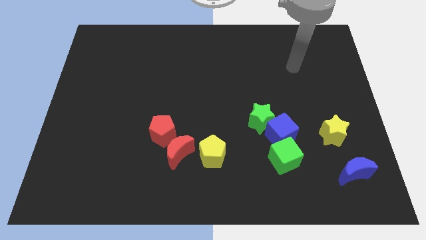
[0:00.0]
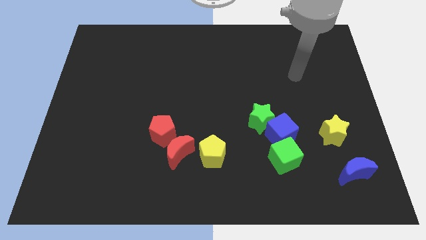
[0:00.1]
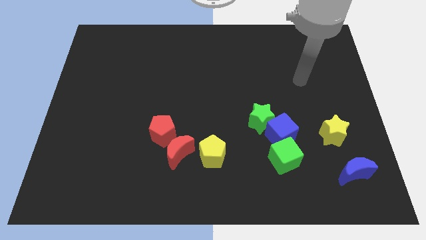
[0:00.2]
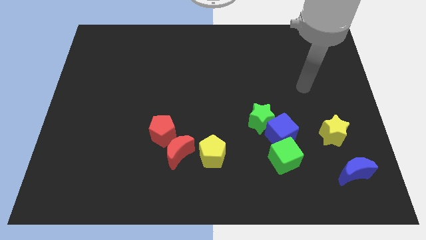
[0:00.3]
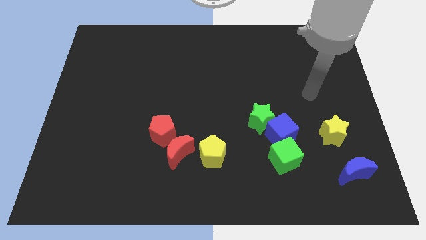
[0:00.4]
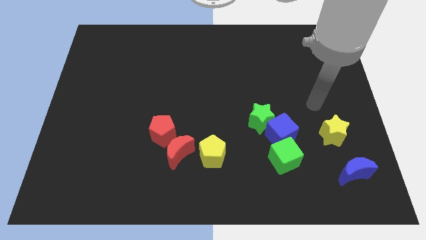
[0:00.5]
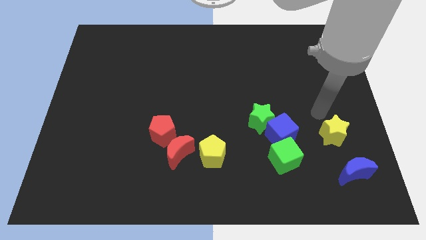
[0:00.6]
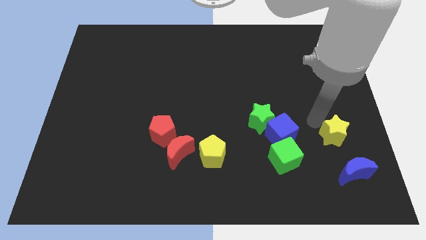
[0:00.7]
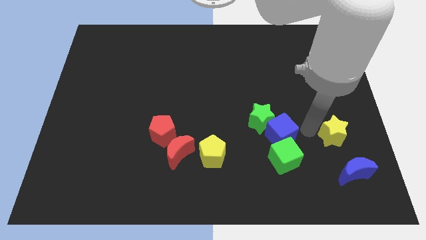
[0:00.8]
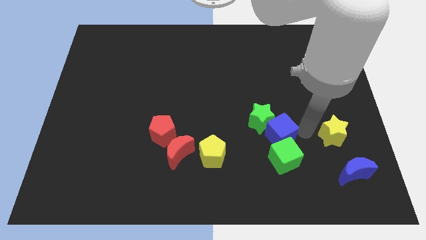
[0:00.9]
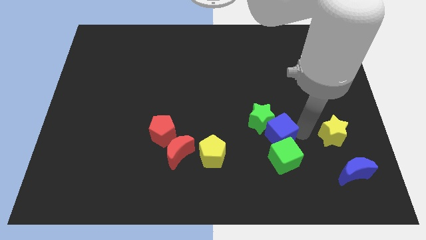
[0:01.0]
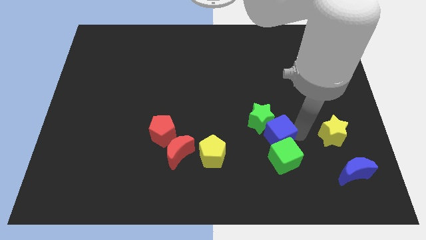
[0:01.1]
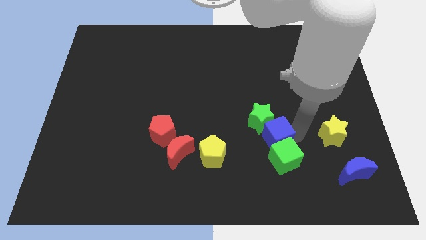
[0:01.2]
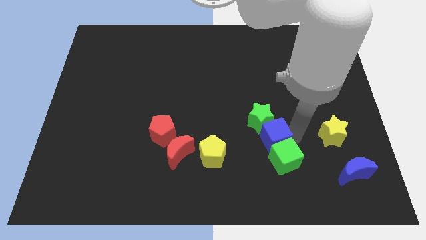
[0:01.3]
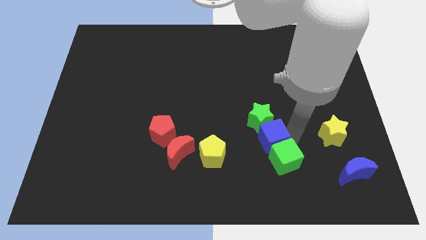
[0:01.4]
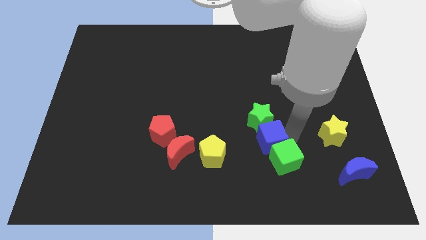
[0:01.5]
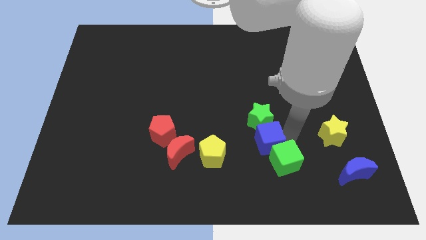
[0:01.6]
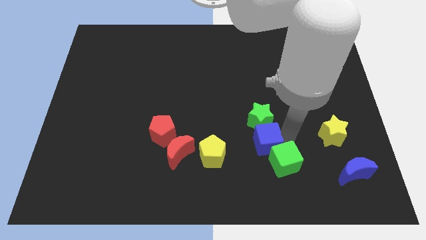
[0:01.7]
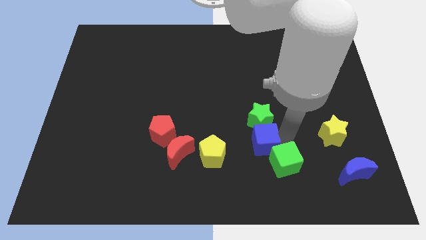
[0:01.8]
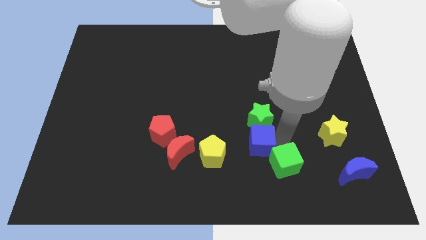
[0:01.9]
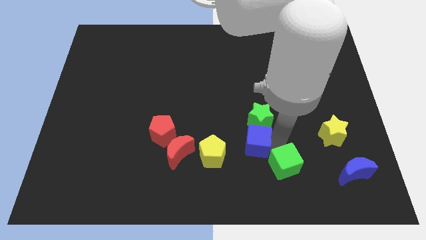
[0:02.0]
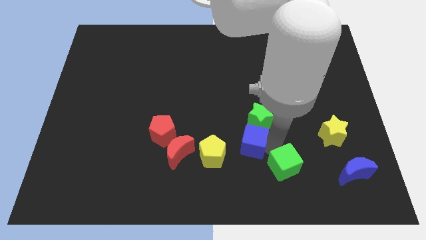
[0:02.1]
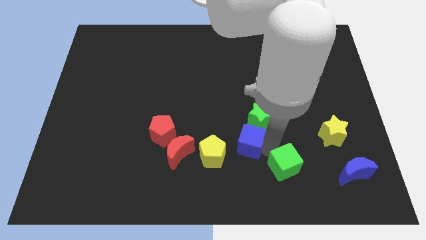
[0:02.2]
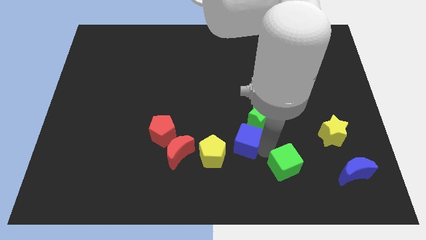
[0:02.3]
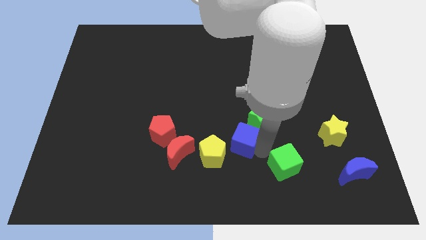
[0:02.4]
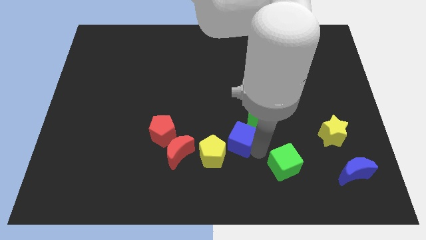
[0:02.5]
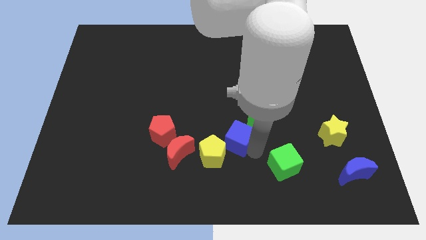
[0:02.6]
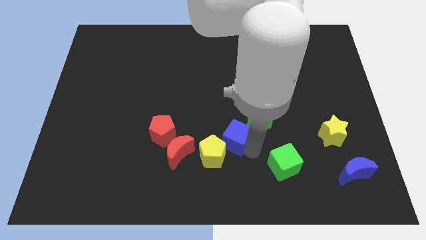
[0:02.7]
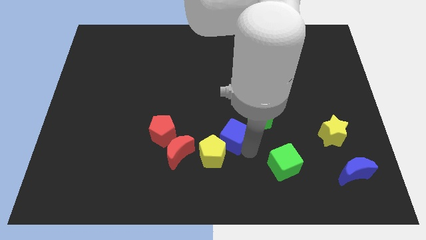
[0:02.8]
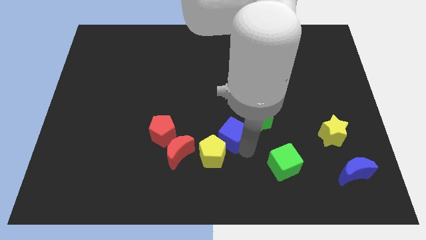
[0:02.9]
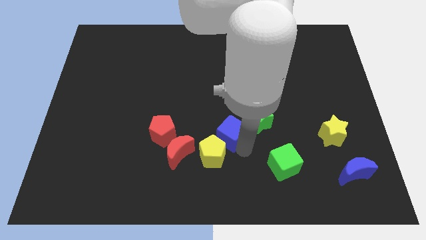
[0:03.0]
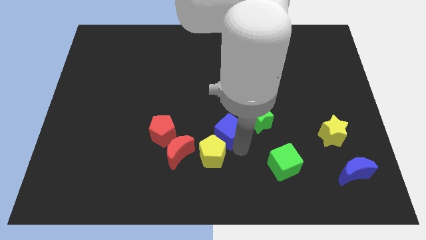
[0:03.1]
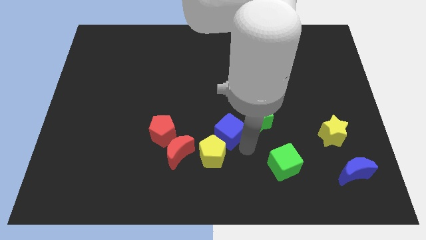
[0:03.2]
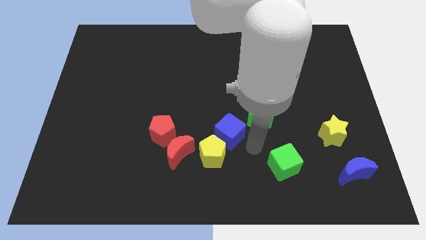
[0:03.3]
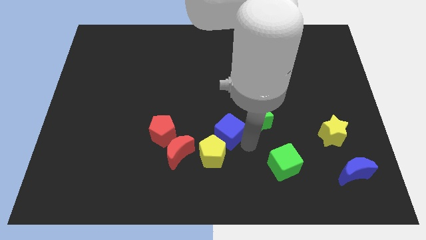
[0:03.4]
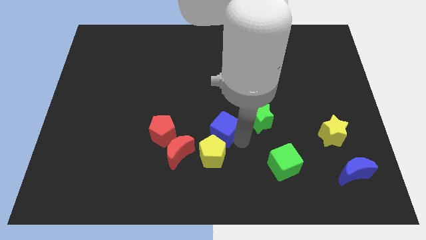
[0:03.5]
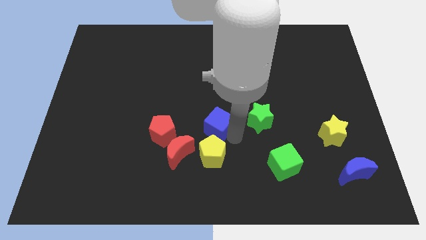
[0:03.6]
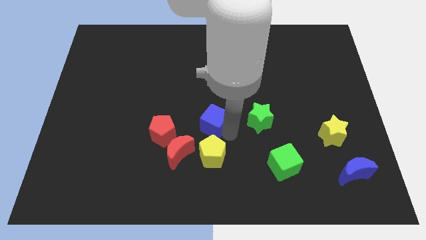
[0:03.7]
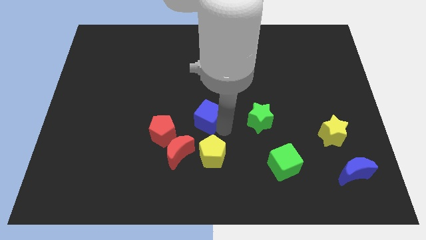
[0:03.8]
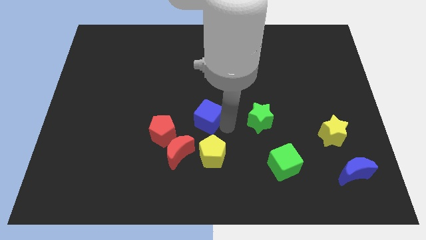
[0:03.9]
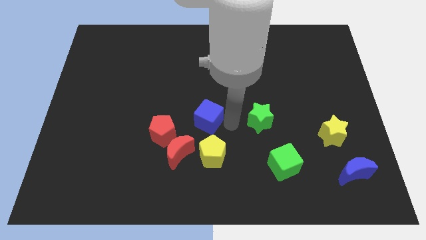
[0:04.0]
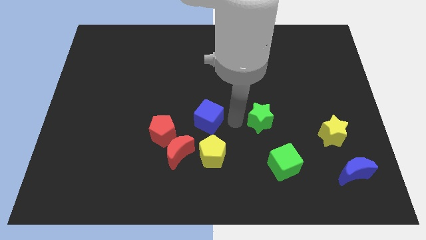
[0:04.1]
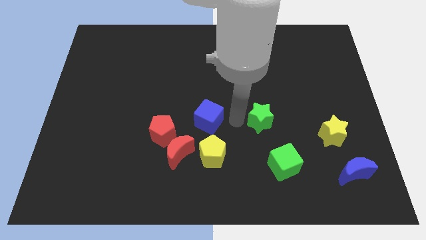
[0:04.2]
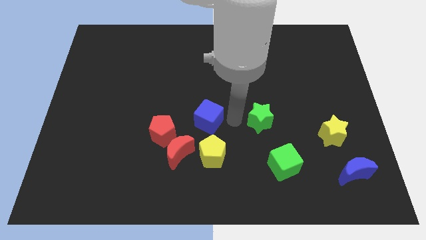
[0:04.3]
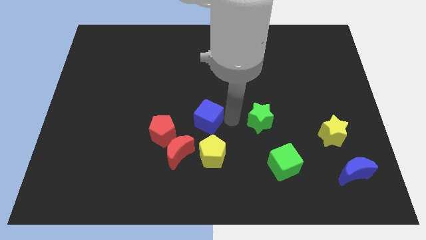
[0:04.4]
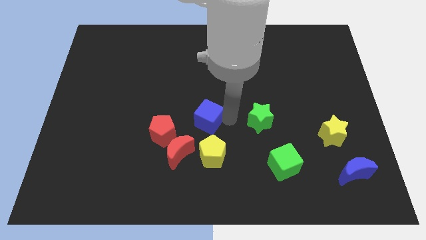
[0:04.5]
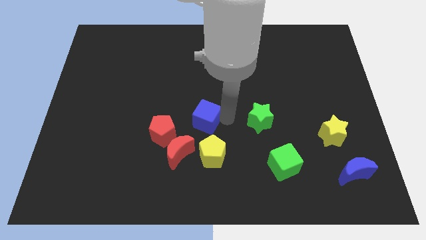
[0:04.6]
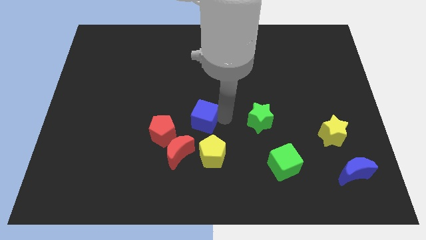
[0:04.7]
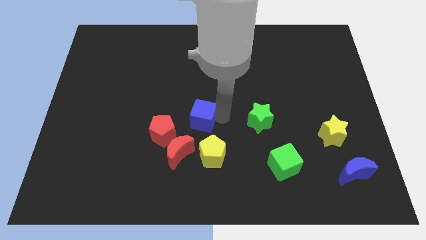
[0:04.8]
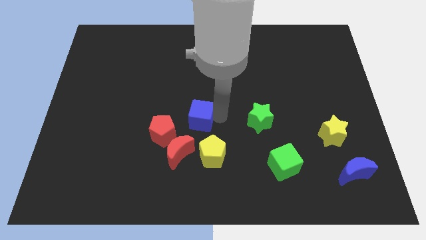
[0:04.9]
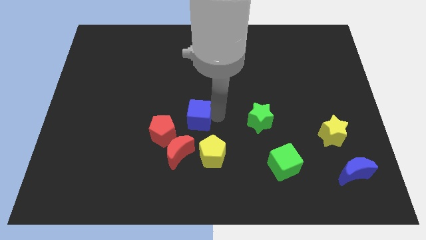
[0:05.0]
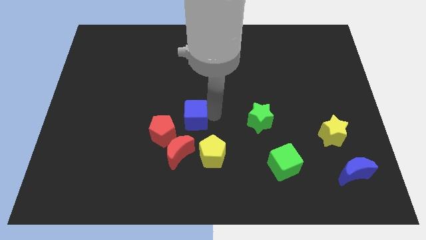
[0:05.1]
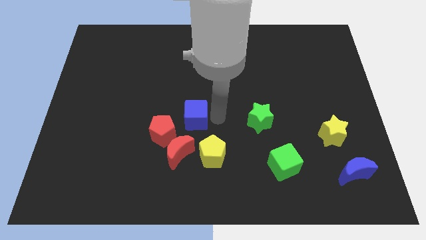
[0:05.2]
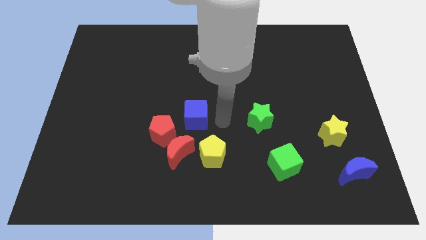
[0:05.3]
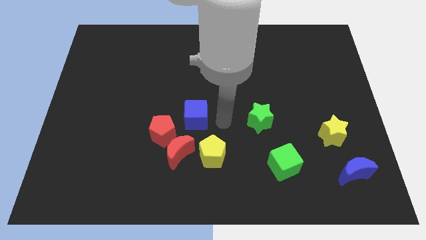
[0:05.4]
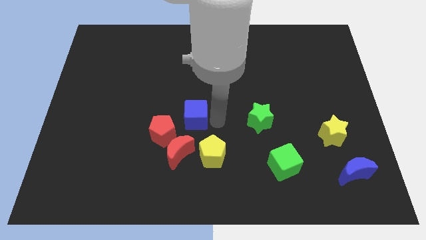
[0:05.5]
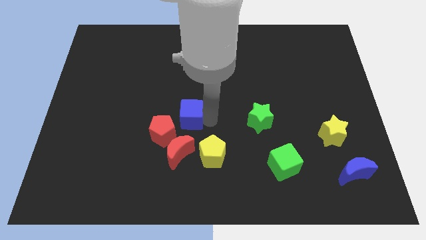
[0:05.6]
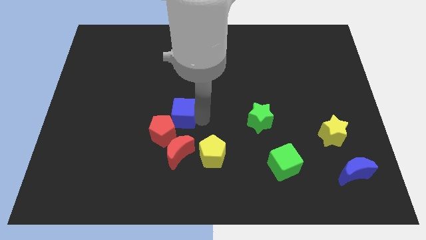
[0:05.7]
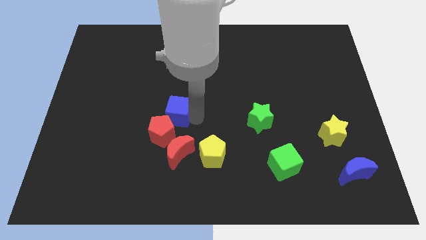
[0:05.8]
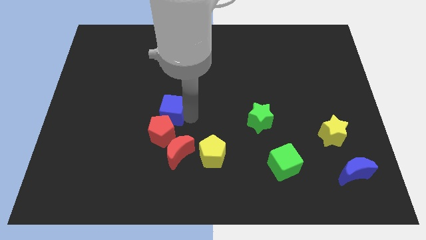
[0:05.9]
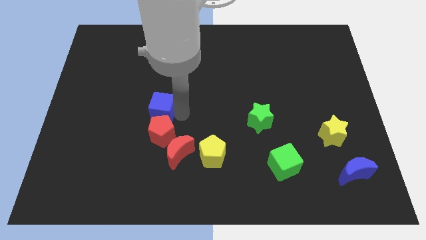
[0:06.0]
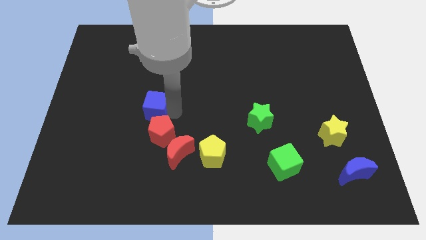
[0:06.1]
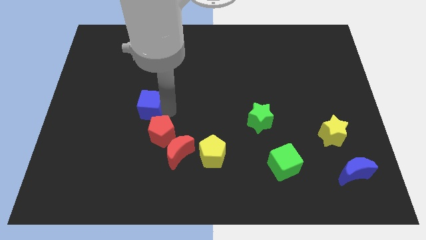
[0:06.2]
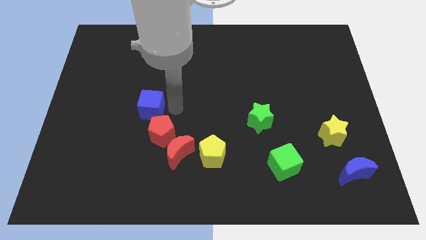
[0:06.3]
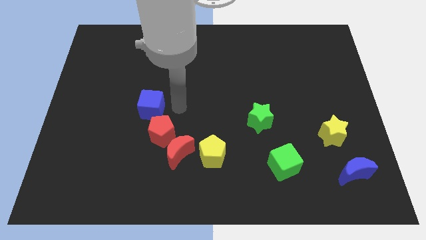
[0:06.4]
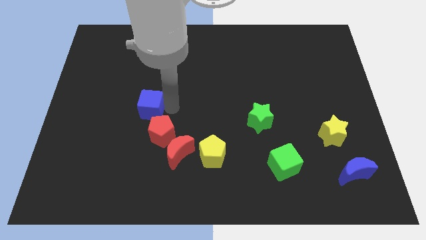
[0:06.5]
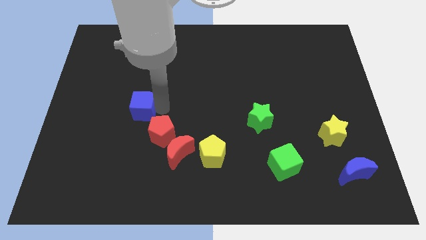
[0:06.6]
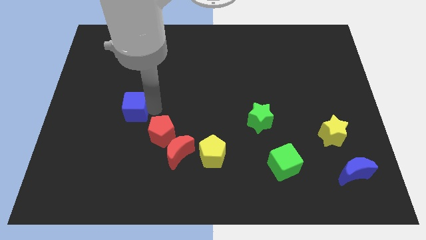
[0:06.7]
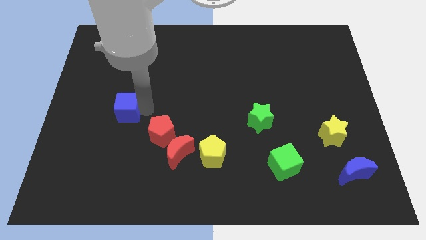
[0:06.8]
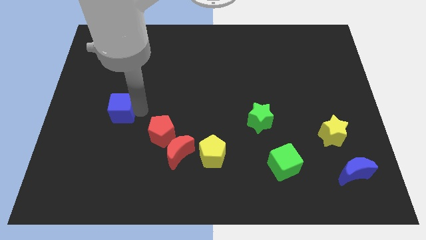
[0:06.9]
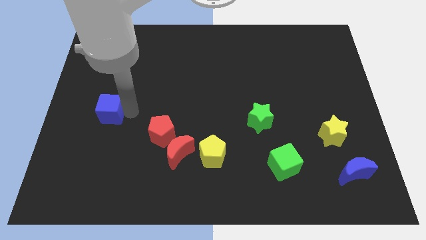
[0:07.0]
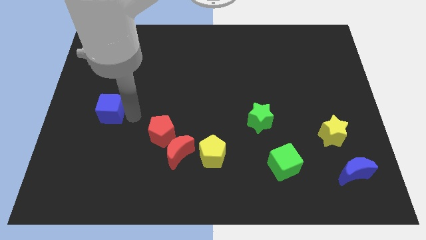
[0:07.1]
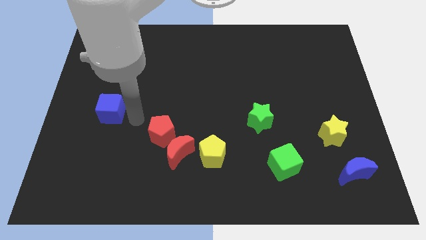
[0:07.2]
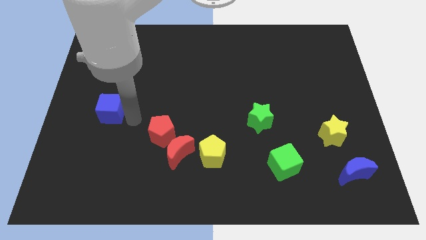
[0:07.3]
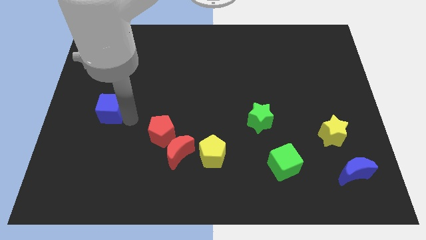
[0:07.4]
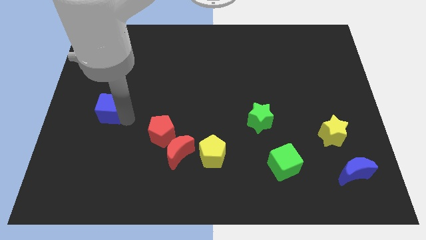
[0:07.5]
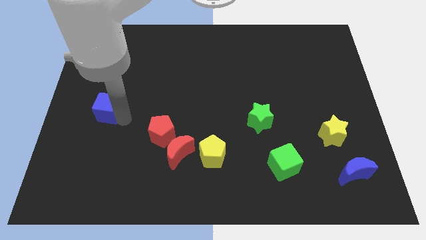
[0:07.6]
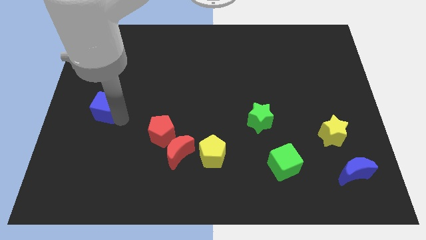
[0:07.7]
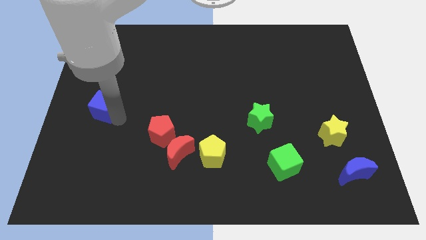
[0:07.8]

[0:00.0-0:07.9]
put the blue cube to the left side
